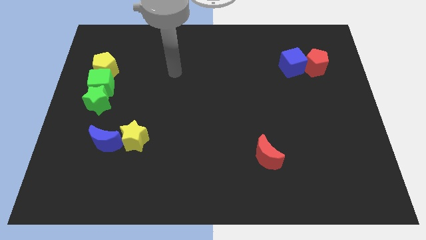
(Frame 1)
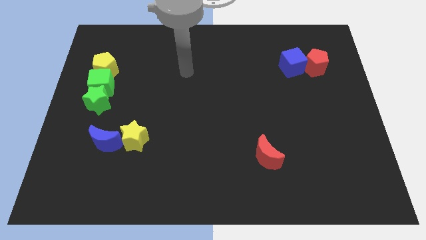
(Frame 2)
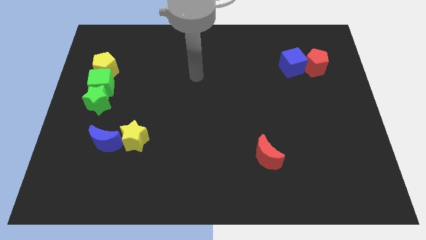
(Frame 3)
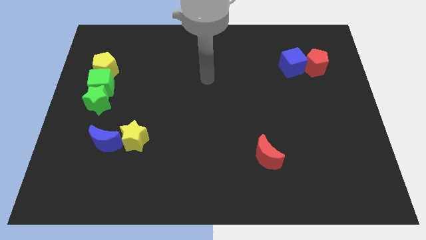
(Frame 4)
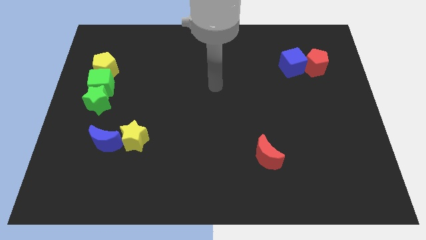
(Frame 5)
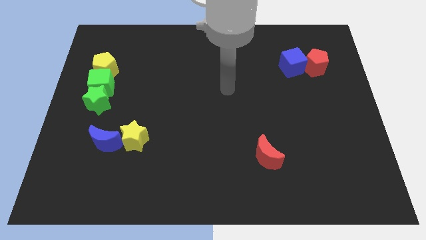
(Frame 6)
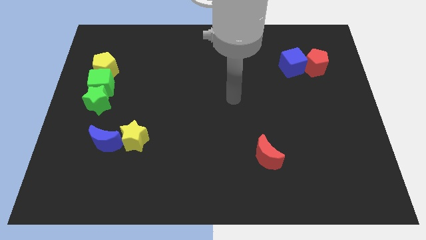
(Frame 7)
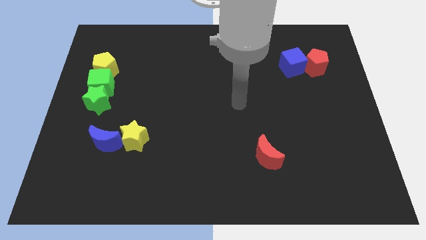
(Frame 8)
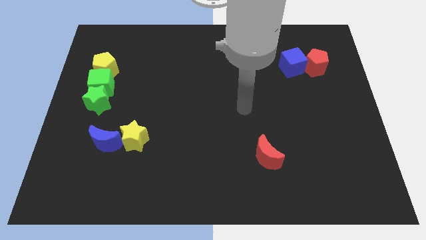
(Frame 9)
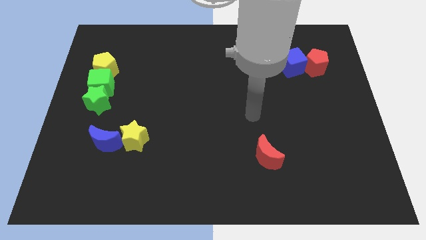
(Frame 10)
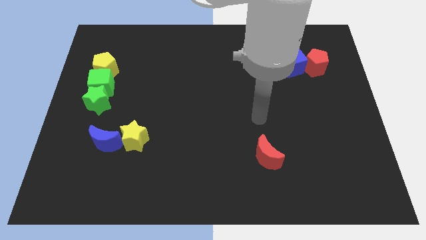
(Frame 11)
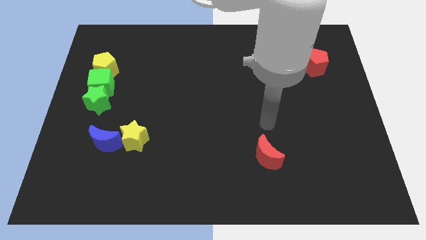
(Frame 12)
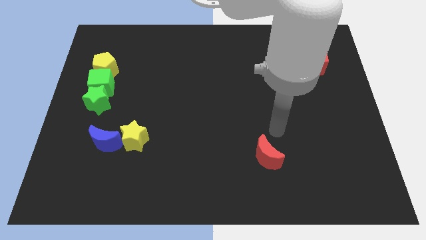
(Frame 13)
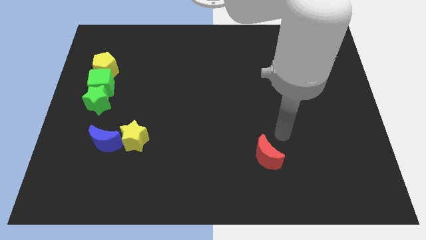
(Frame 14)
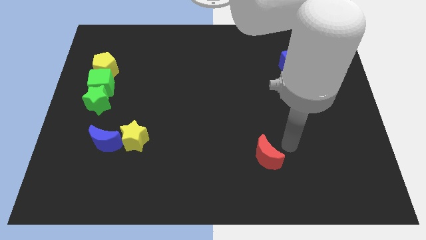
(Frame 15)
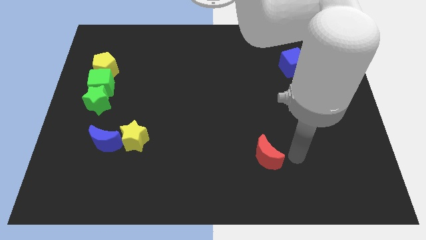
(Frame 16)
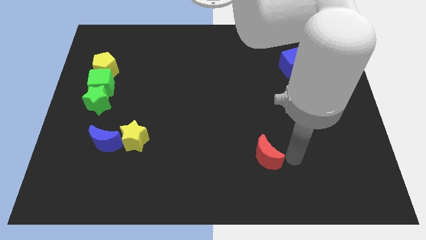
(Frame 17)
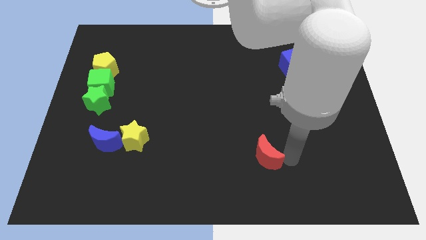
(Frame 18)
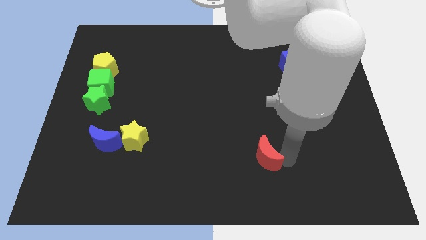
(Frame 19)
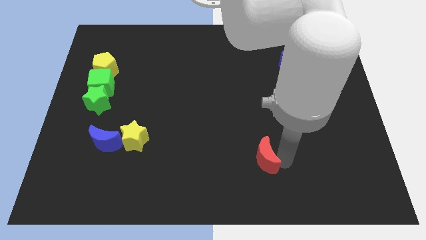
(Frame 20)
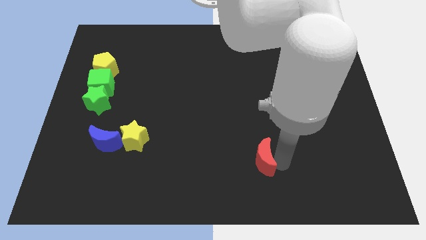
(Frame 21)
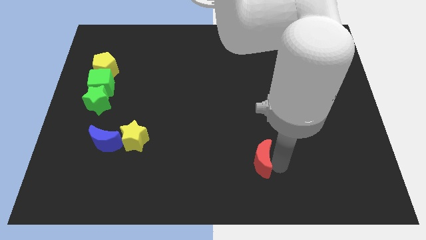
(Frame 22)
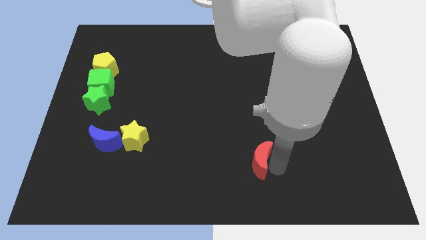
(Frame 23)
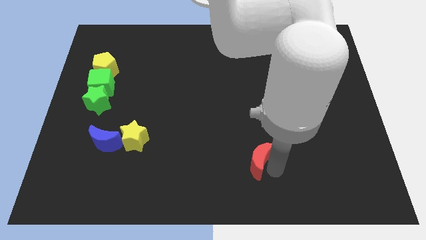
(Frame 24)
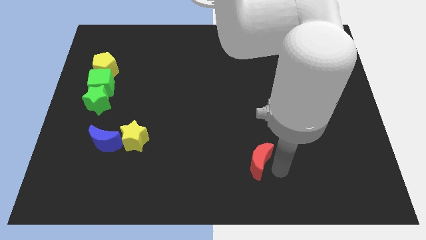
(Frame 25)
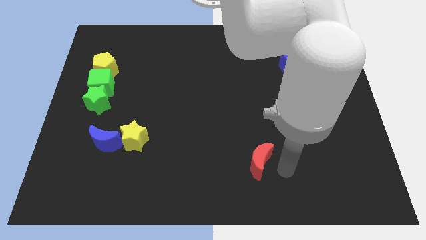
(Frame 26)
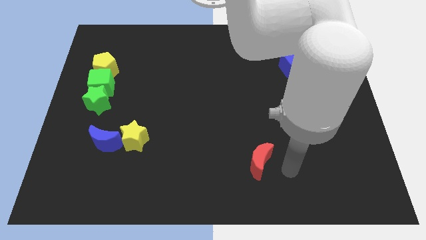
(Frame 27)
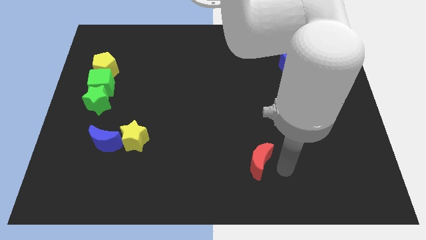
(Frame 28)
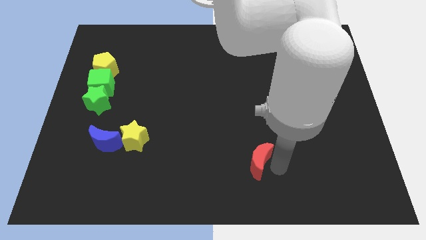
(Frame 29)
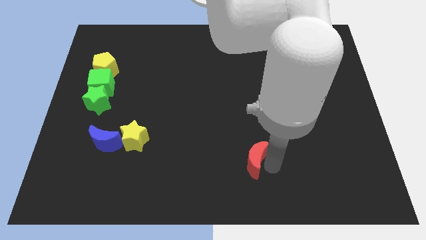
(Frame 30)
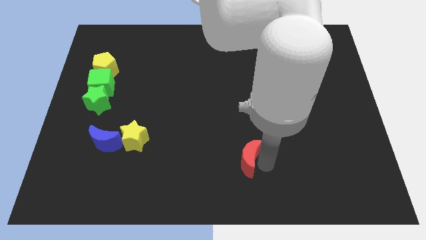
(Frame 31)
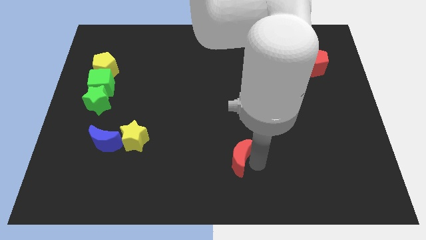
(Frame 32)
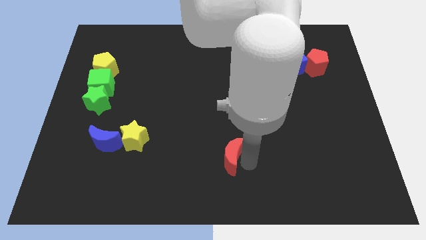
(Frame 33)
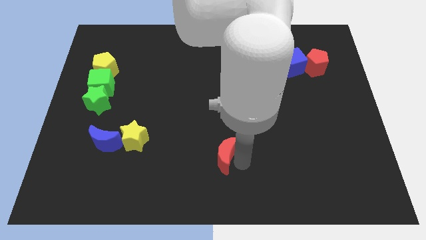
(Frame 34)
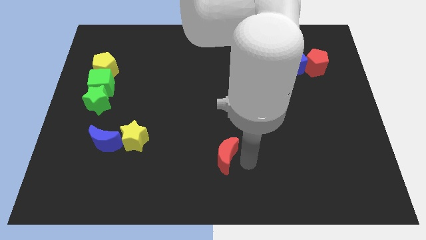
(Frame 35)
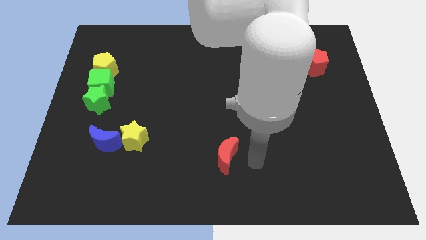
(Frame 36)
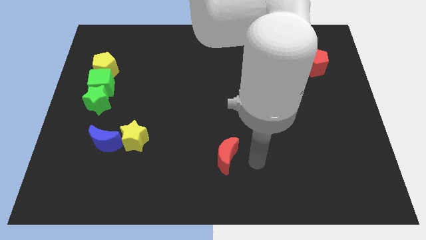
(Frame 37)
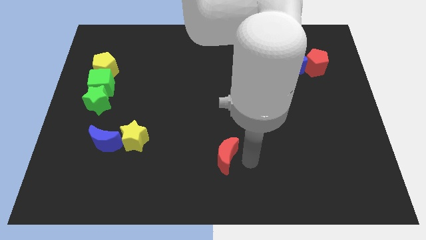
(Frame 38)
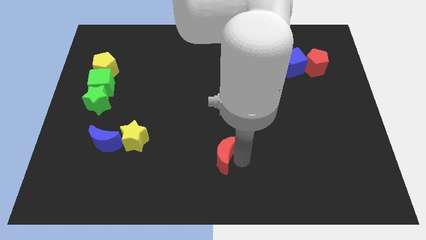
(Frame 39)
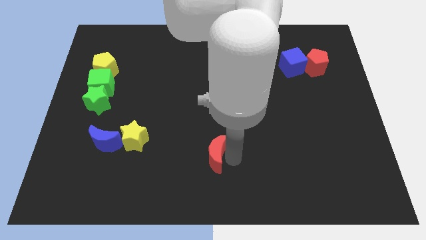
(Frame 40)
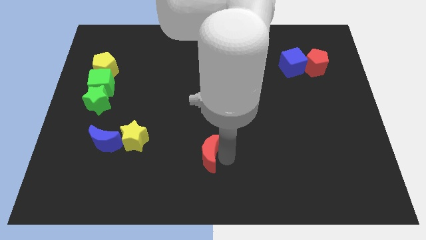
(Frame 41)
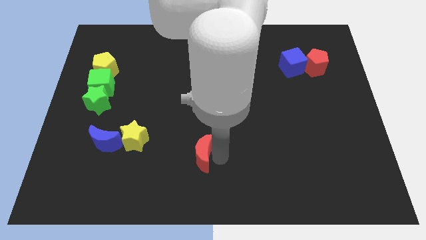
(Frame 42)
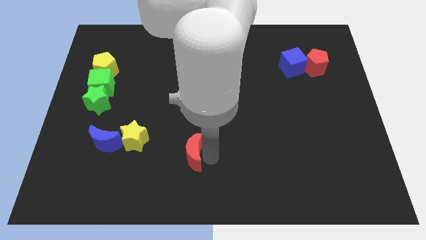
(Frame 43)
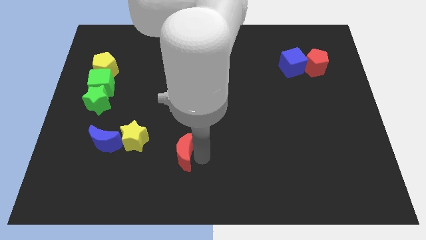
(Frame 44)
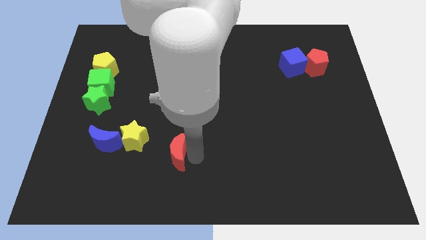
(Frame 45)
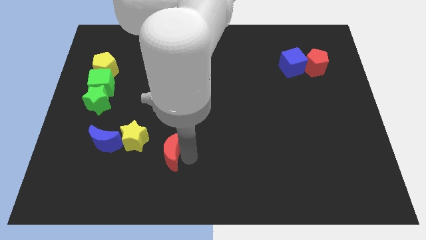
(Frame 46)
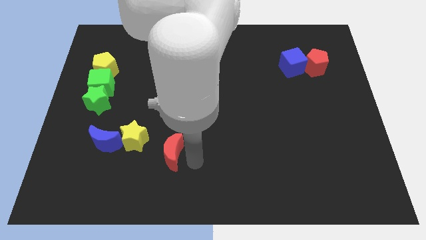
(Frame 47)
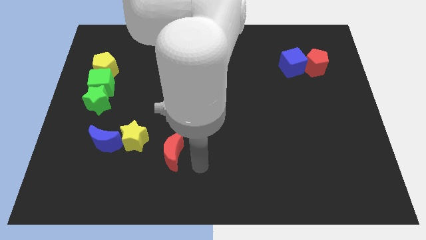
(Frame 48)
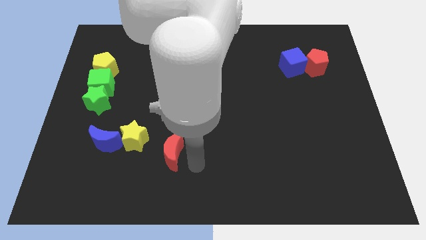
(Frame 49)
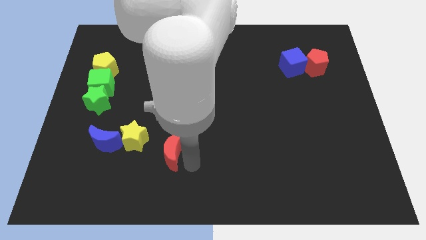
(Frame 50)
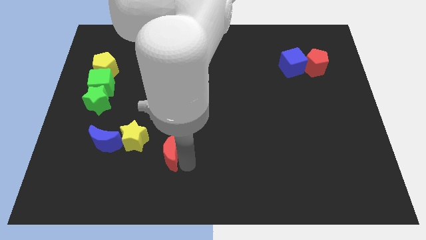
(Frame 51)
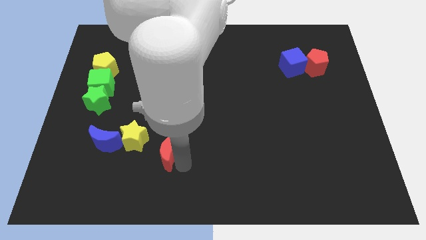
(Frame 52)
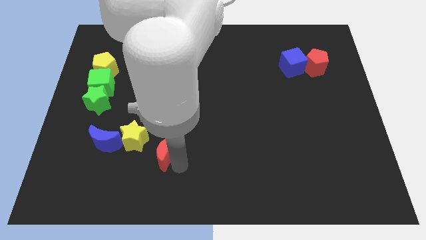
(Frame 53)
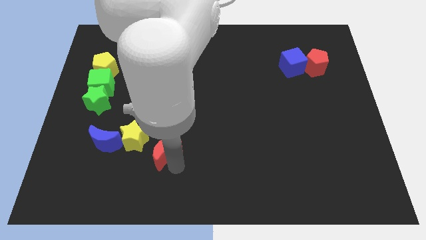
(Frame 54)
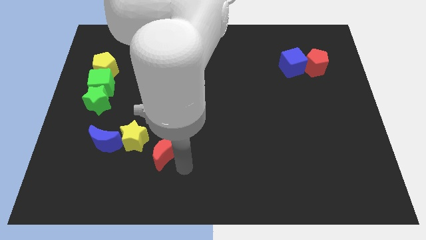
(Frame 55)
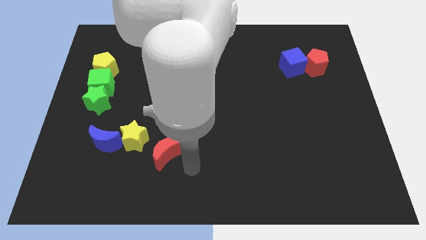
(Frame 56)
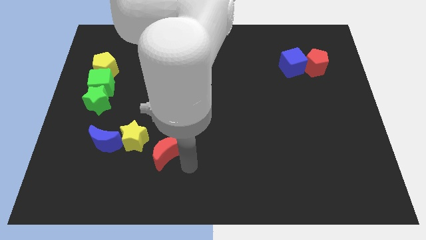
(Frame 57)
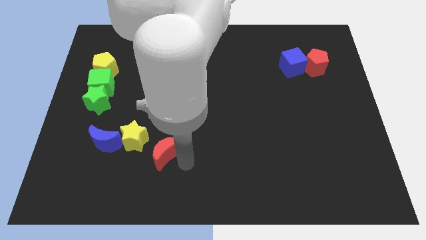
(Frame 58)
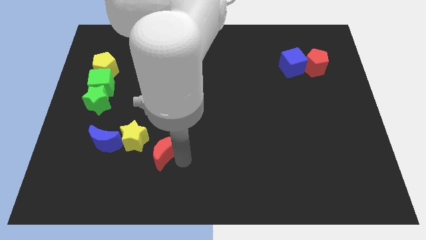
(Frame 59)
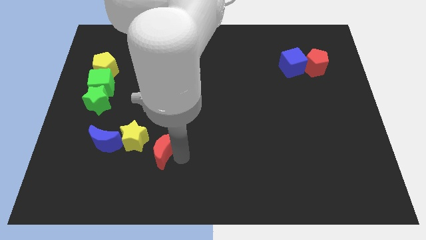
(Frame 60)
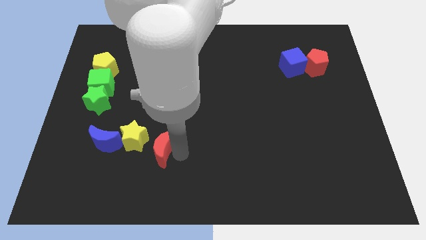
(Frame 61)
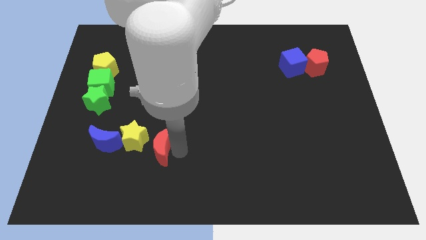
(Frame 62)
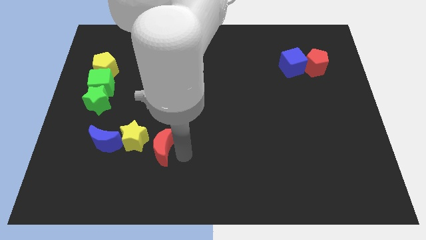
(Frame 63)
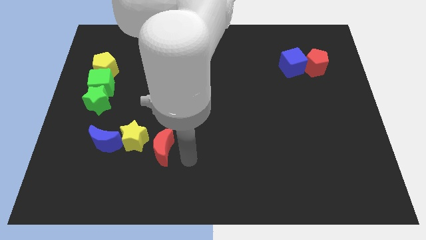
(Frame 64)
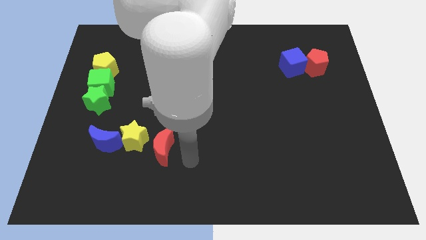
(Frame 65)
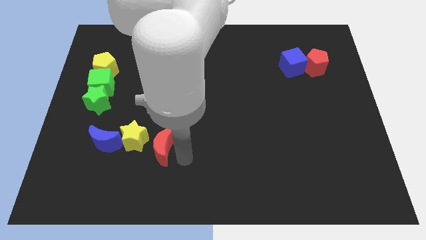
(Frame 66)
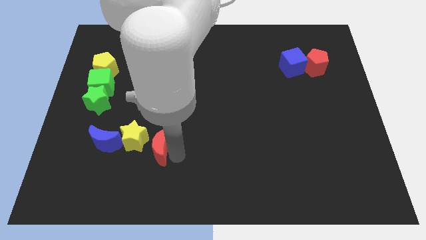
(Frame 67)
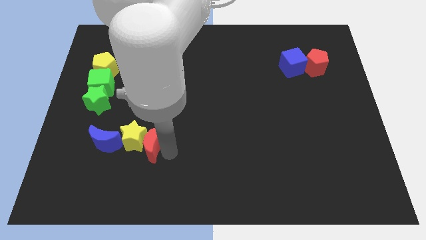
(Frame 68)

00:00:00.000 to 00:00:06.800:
push the red moon to the yellow star
